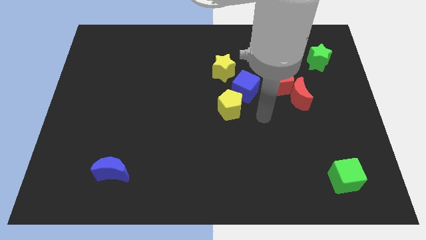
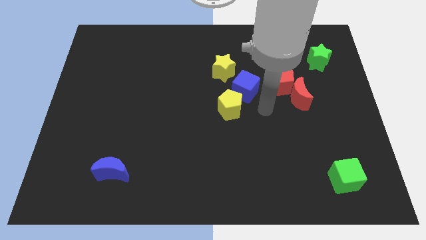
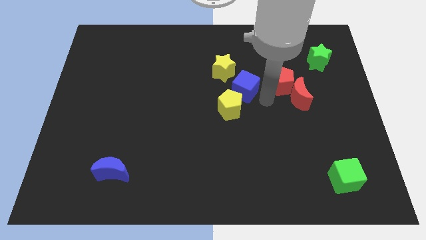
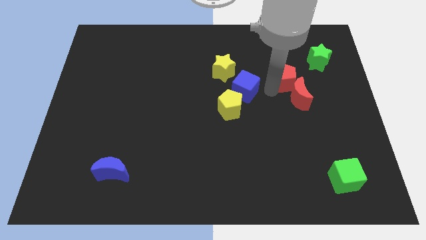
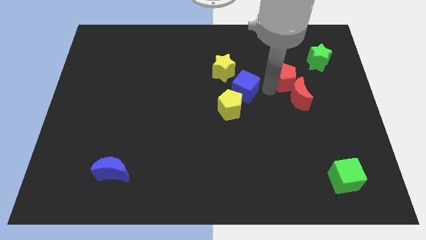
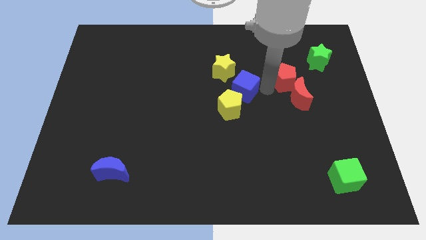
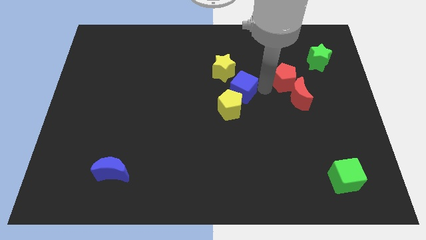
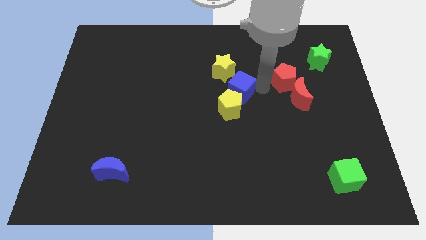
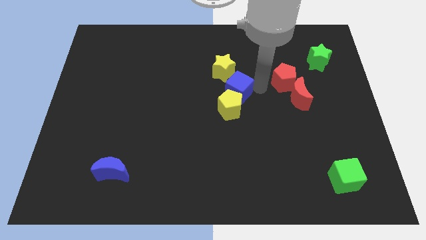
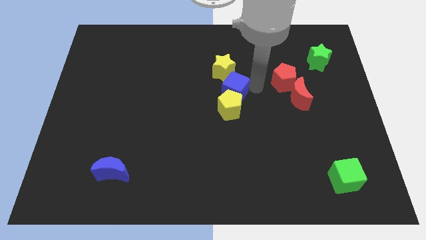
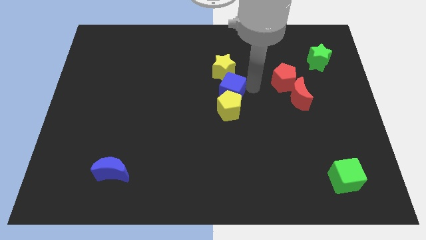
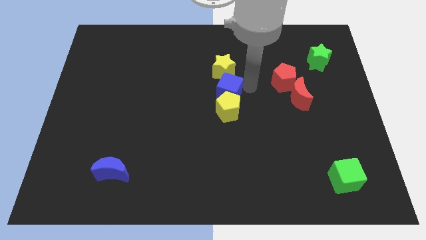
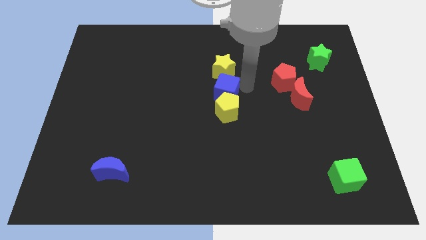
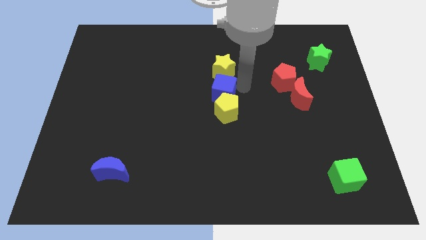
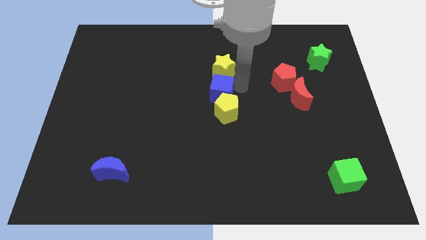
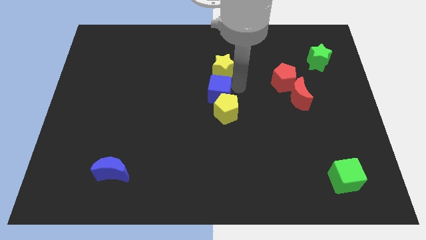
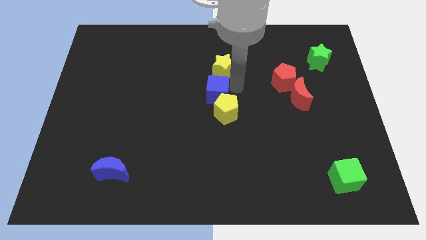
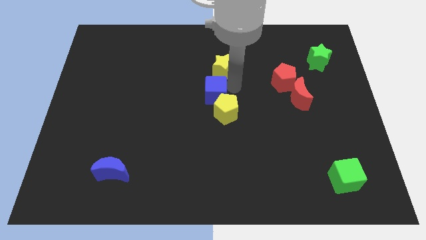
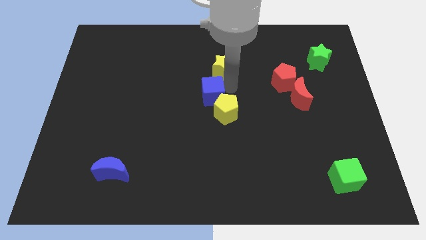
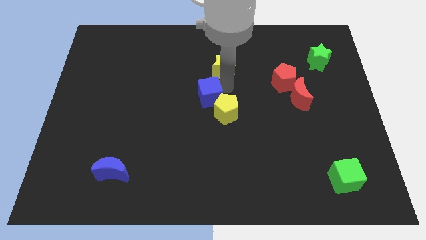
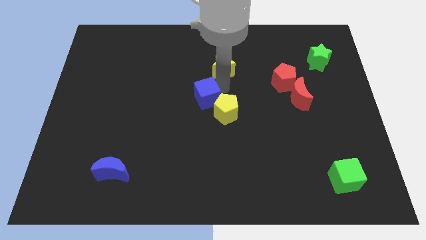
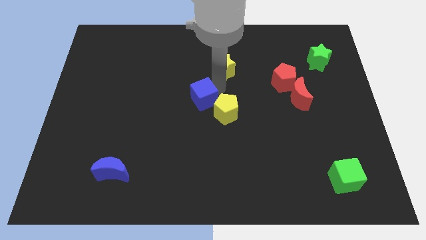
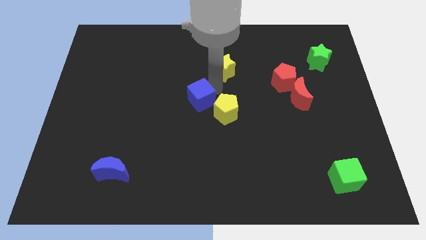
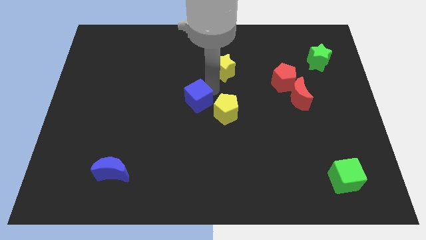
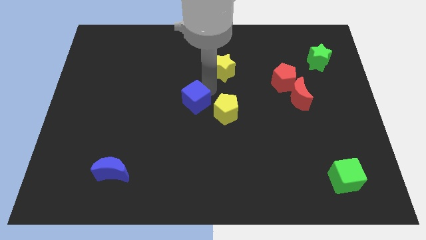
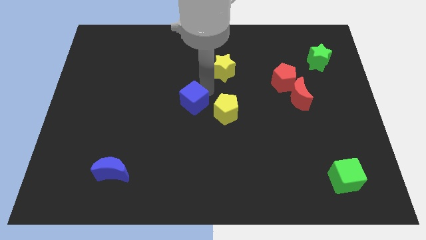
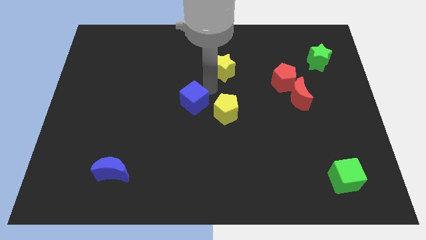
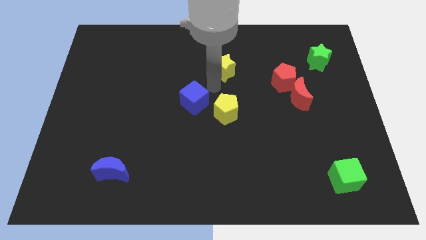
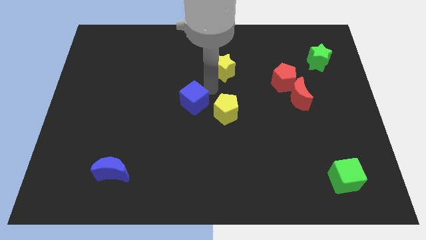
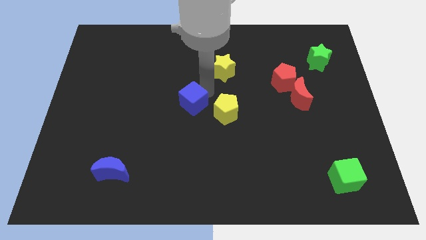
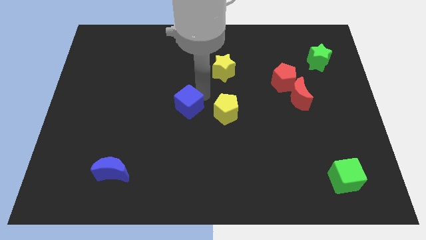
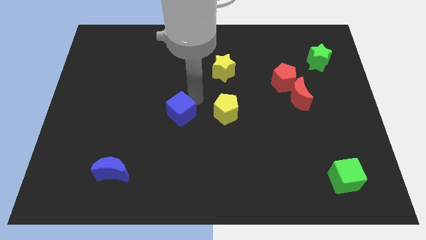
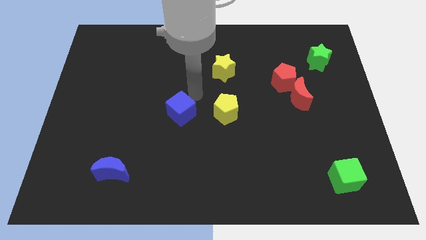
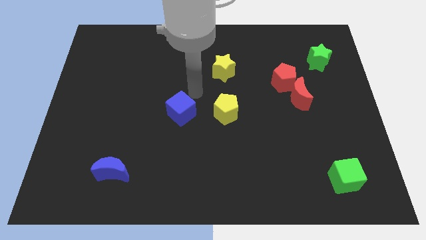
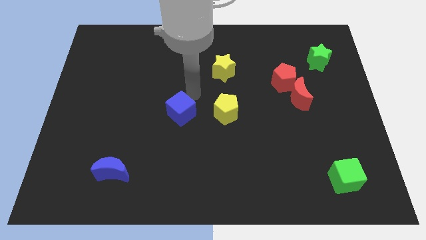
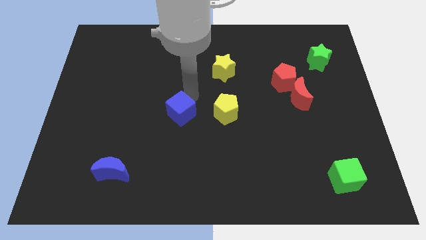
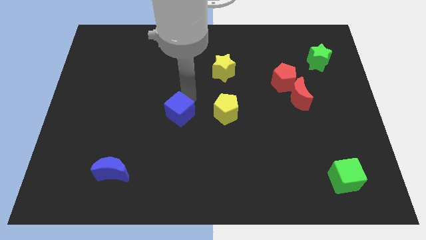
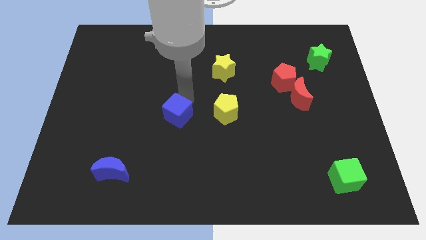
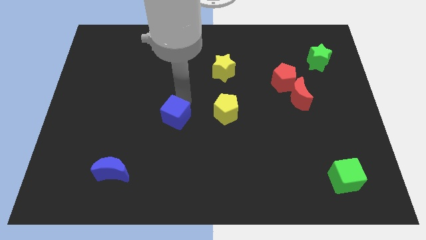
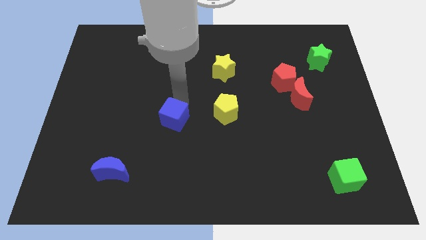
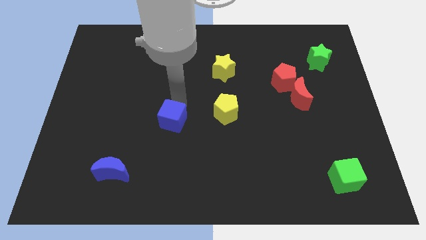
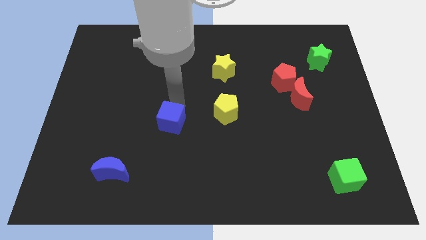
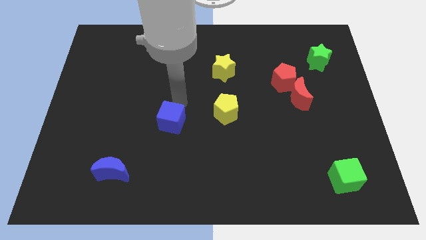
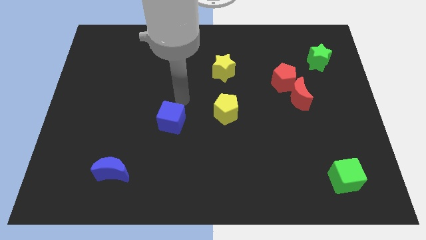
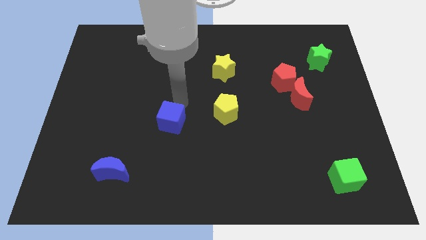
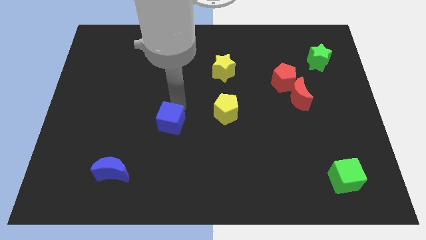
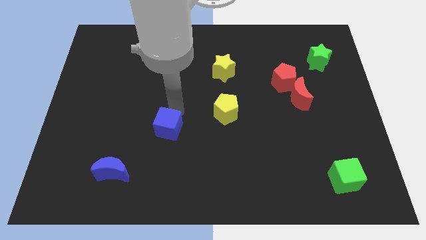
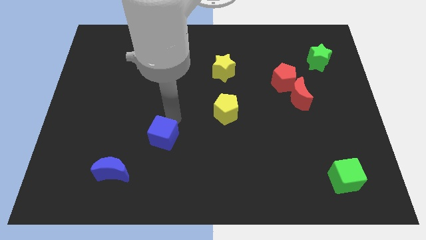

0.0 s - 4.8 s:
slide the blue cube down and to the left

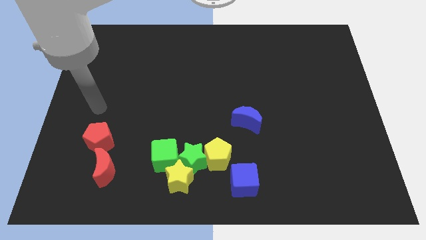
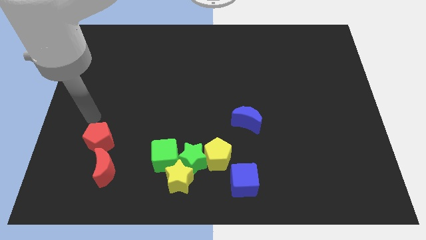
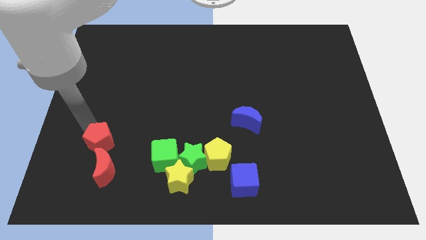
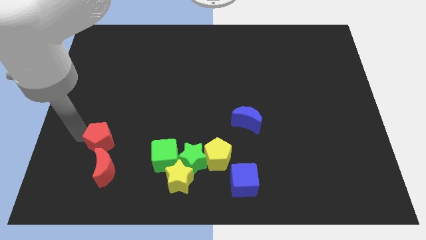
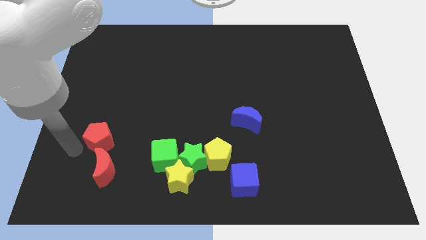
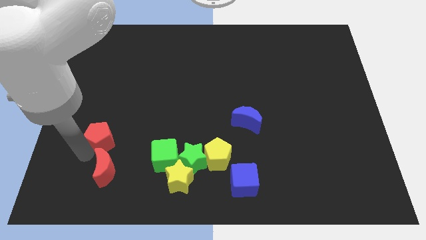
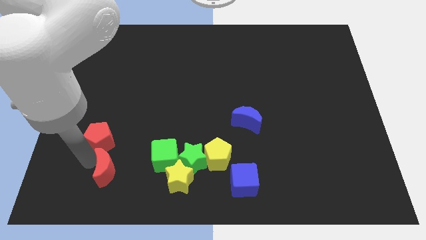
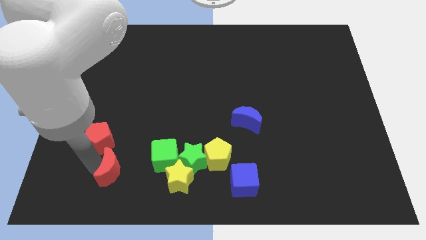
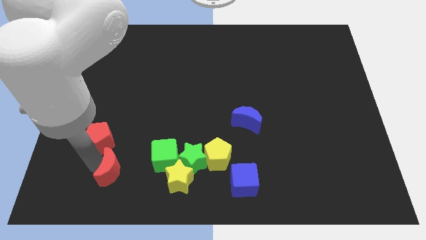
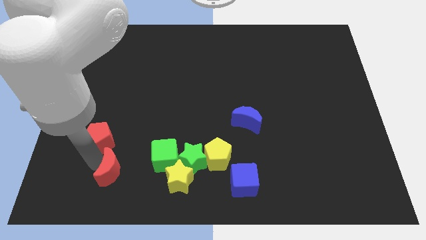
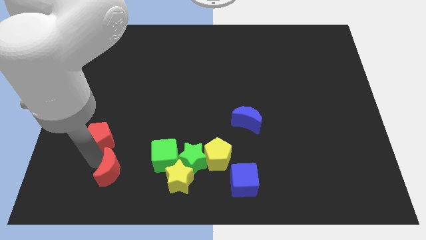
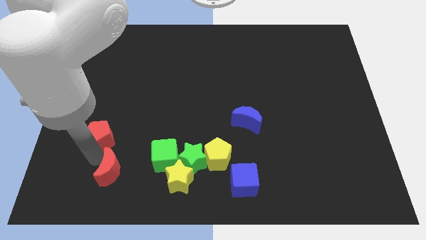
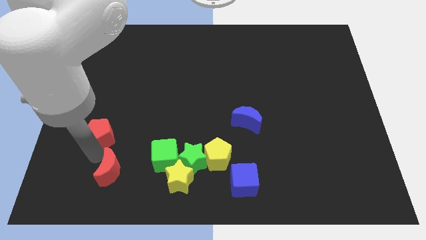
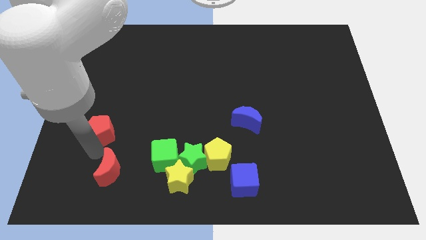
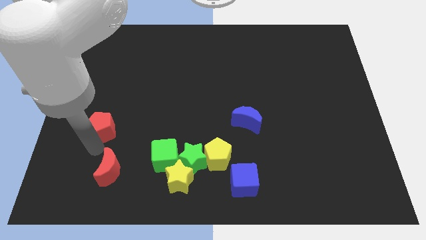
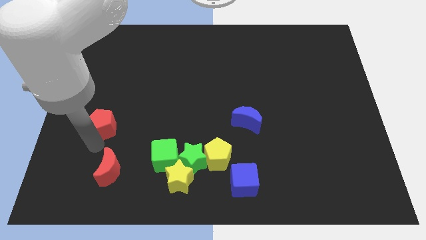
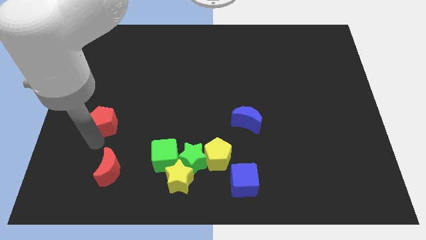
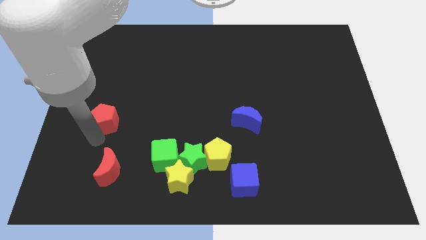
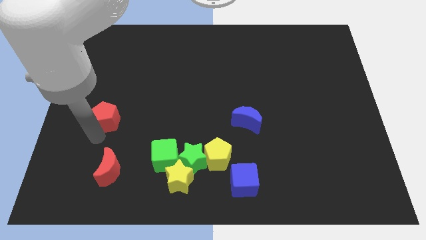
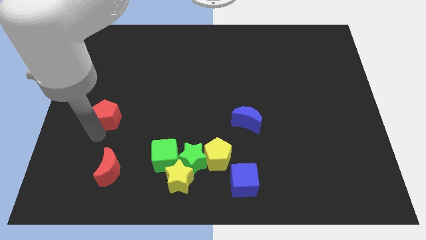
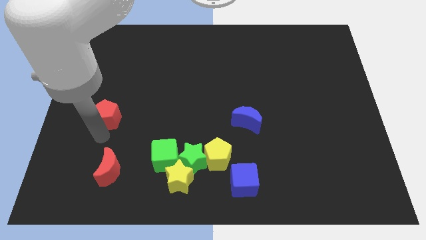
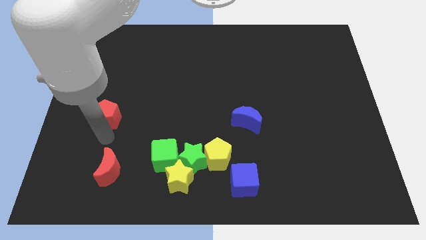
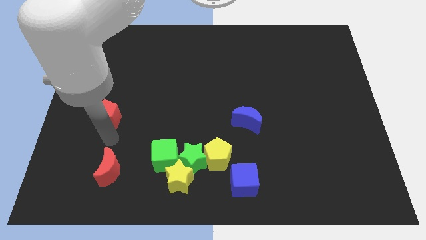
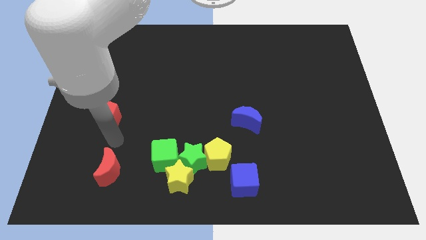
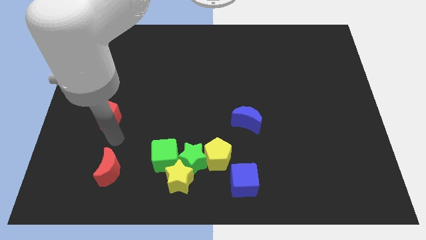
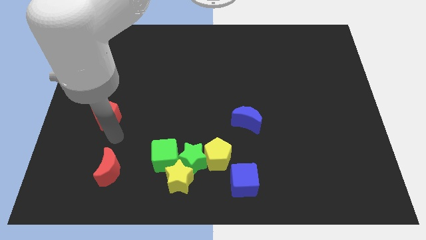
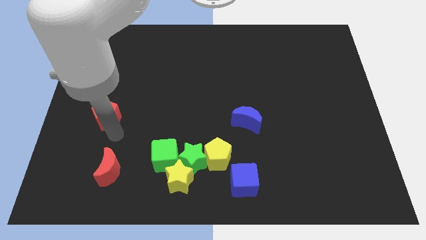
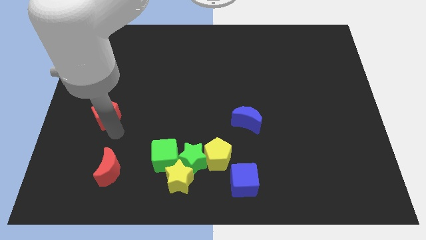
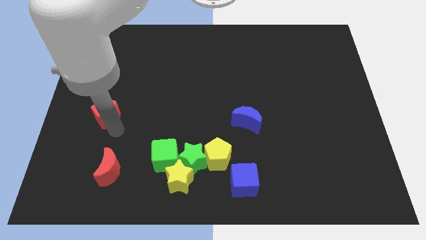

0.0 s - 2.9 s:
move the red pentagon slightly upwards

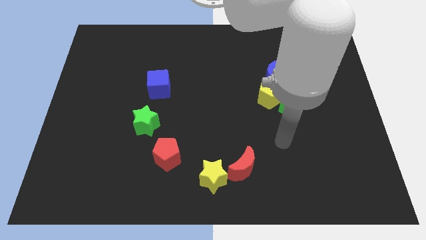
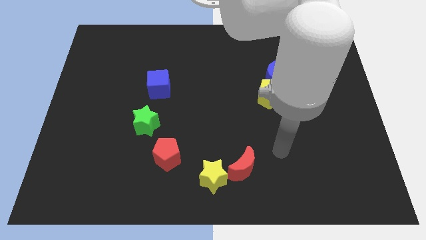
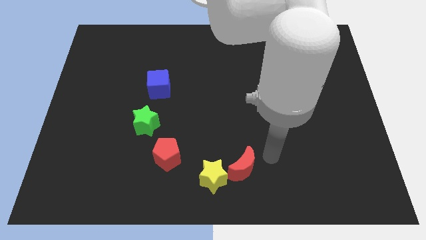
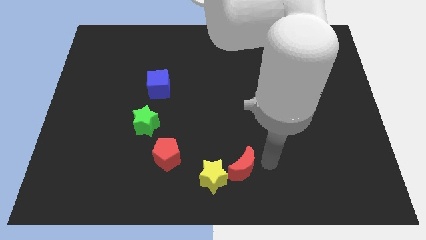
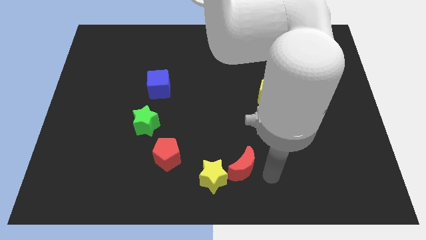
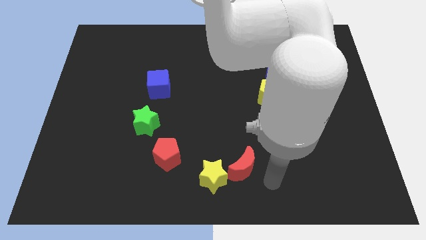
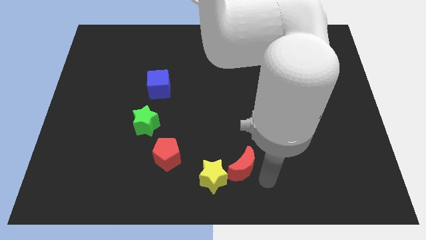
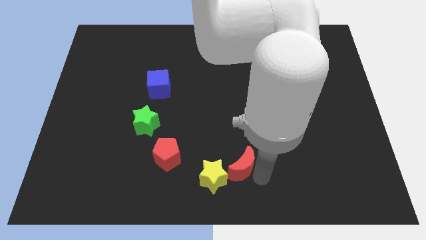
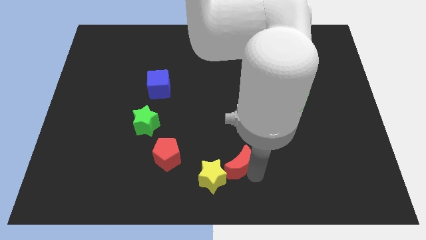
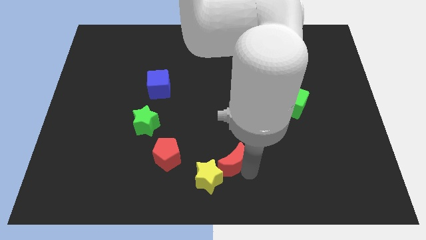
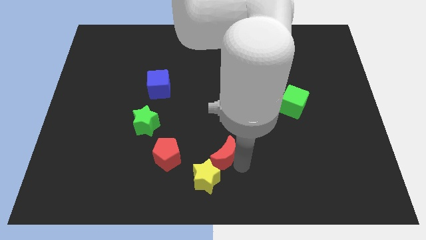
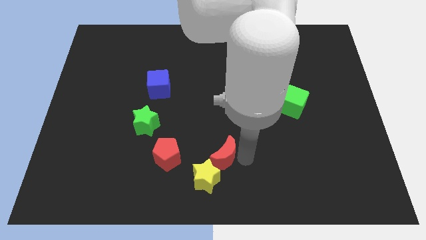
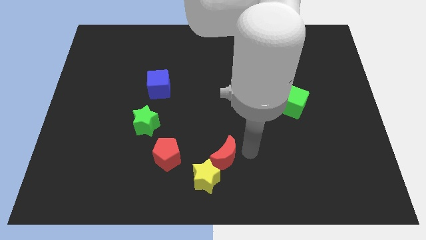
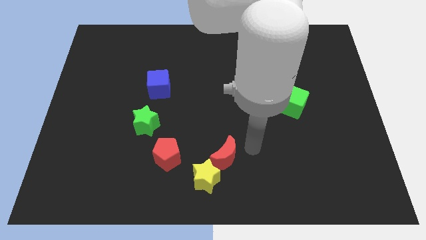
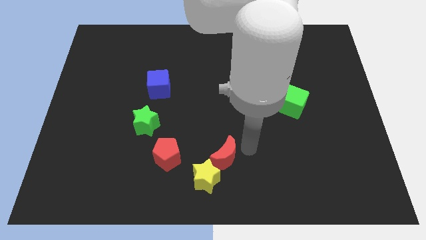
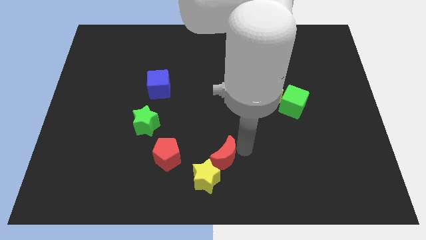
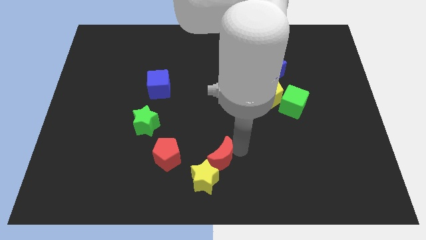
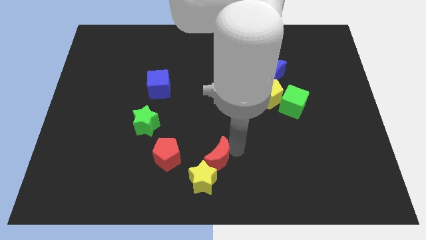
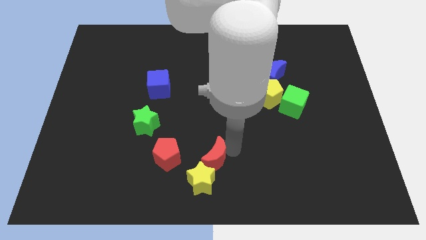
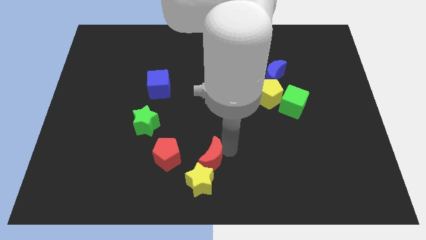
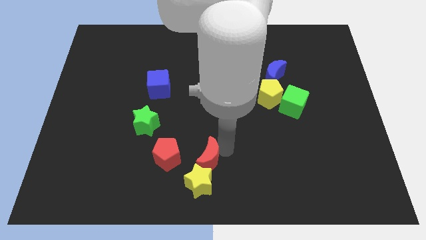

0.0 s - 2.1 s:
push the red moon left a little
